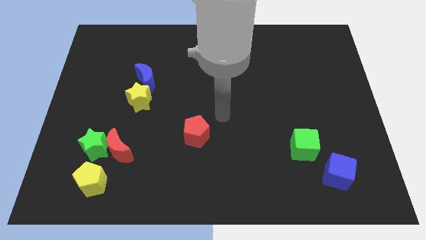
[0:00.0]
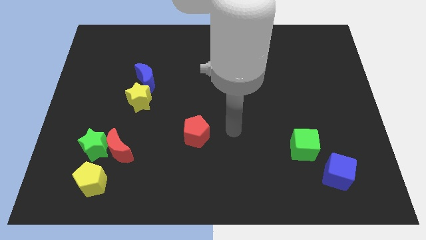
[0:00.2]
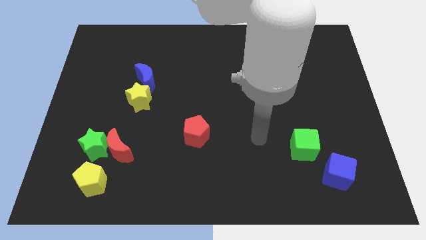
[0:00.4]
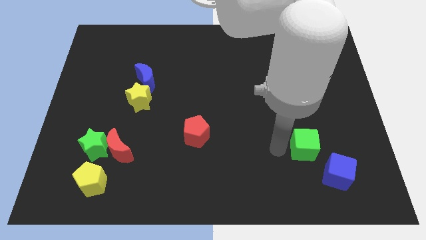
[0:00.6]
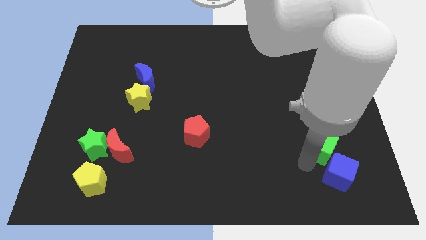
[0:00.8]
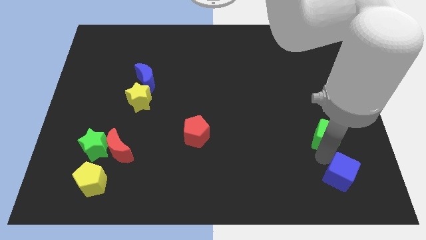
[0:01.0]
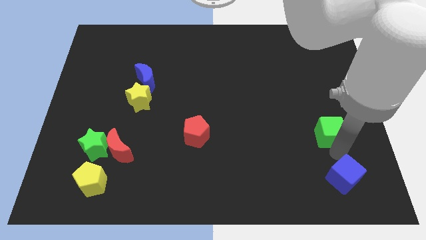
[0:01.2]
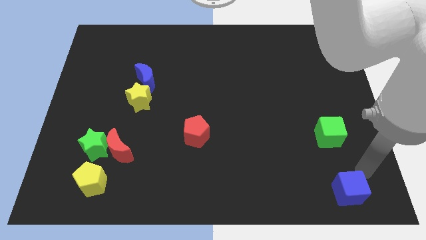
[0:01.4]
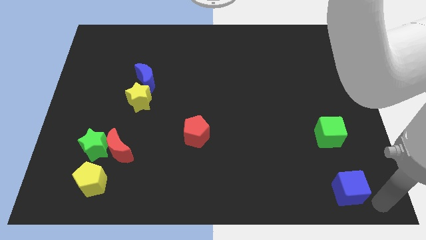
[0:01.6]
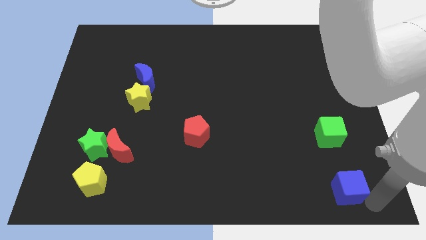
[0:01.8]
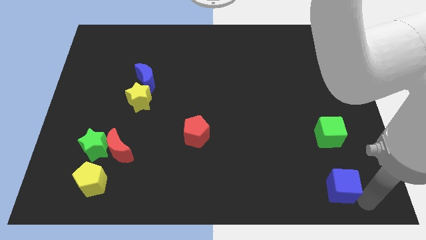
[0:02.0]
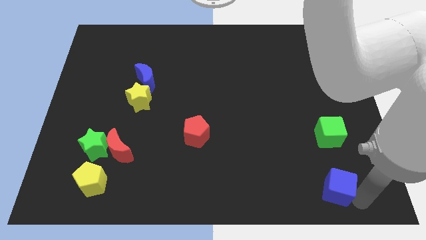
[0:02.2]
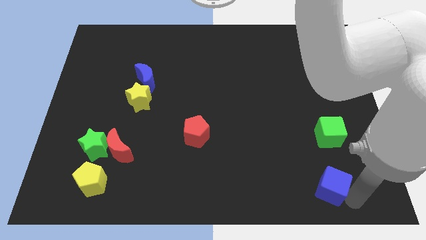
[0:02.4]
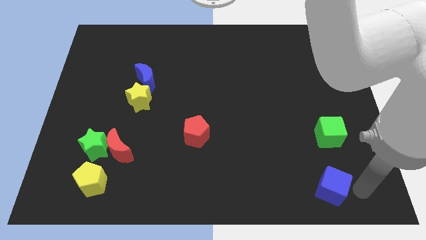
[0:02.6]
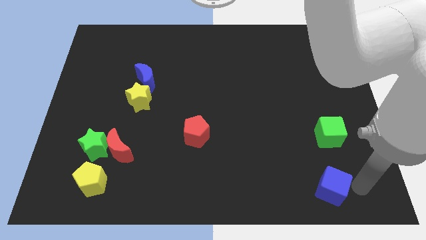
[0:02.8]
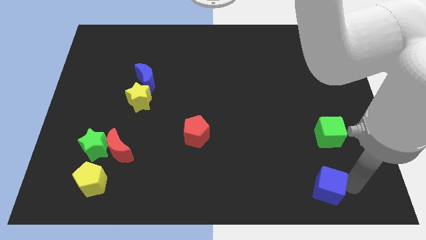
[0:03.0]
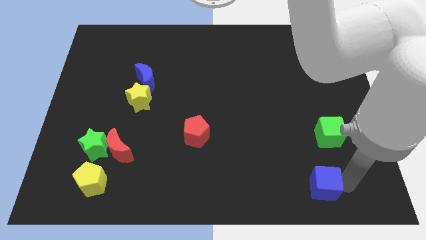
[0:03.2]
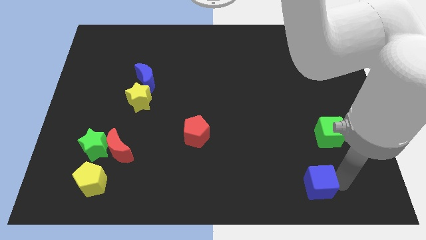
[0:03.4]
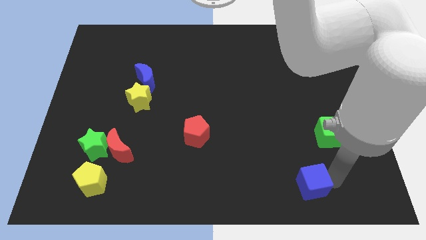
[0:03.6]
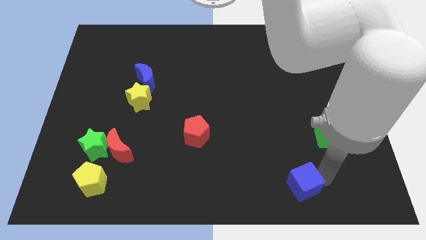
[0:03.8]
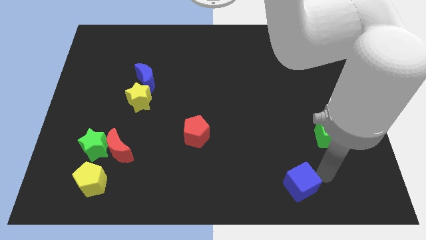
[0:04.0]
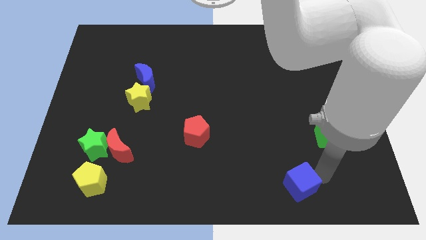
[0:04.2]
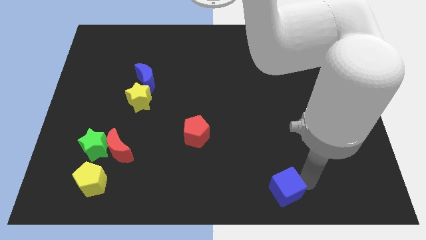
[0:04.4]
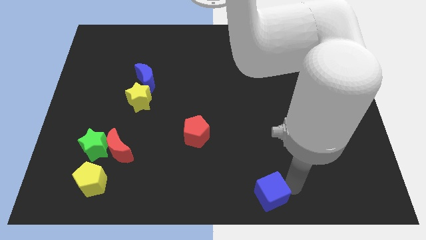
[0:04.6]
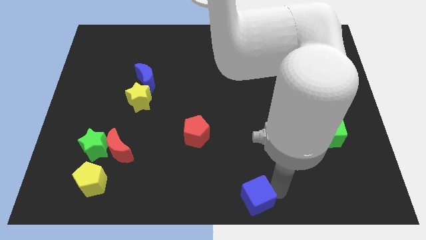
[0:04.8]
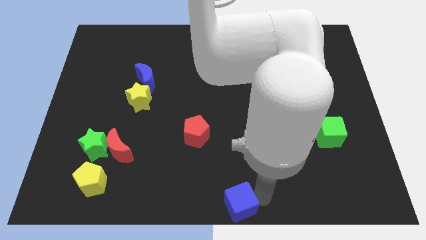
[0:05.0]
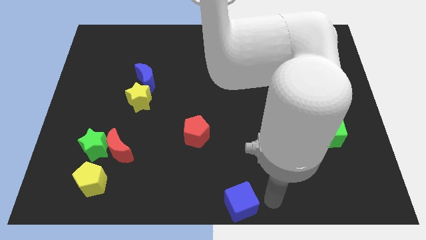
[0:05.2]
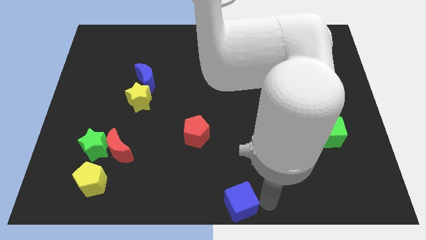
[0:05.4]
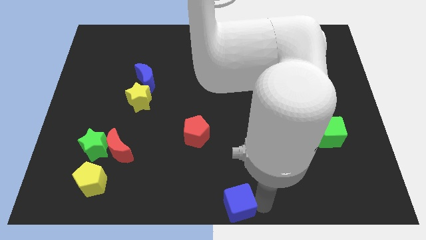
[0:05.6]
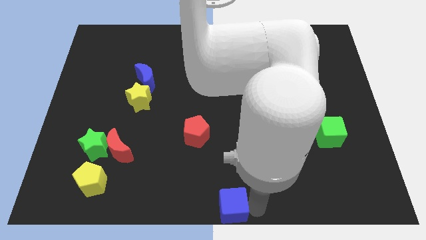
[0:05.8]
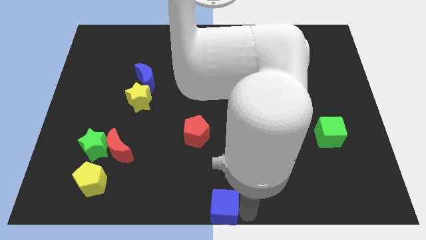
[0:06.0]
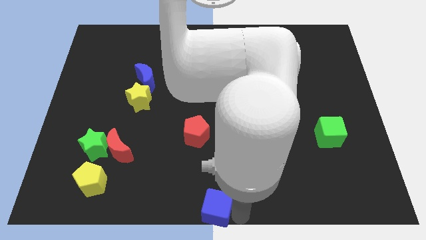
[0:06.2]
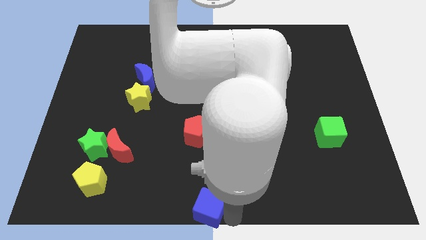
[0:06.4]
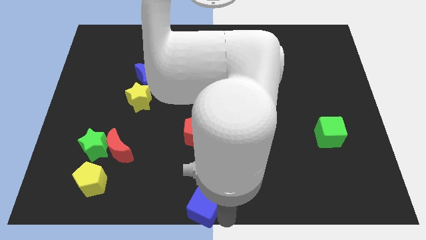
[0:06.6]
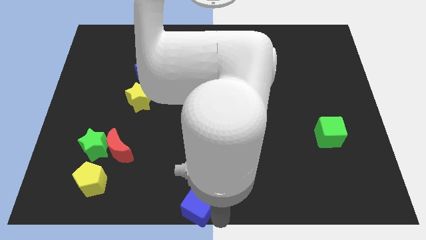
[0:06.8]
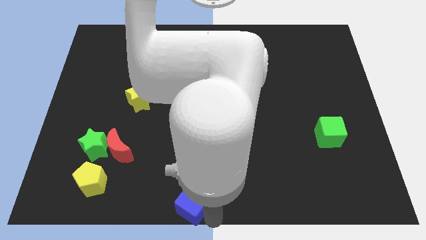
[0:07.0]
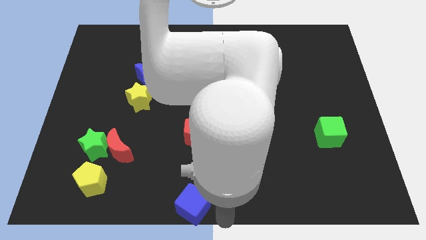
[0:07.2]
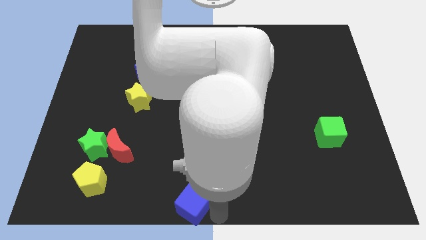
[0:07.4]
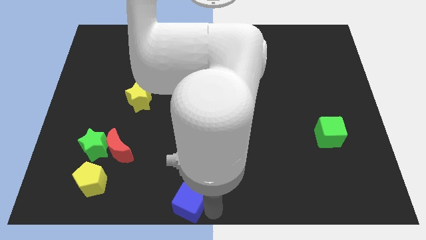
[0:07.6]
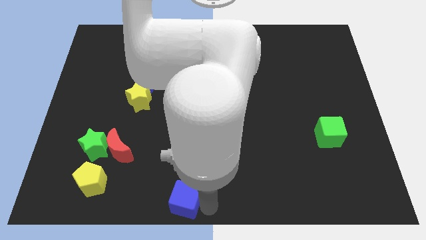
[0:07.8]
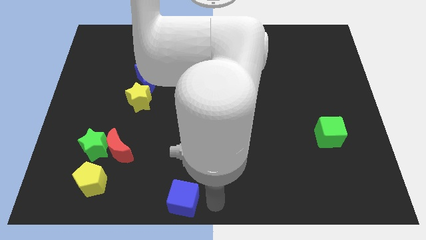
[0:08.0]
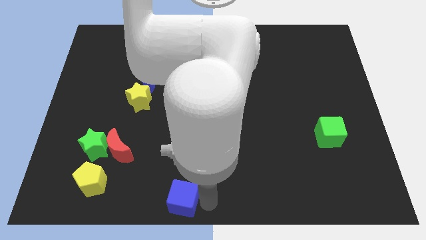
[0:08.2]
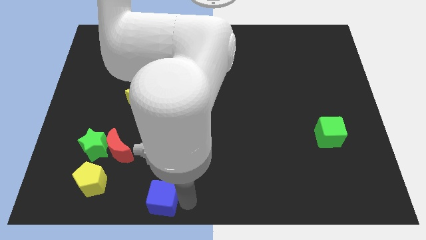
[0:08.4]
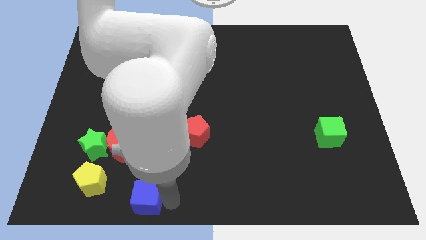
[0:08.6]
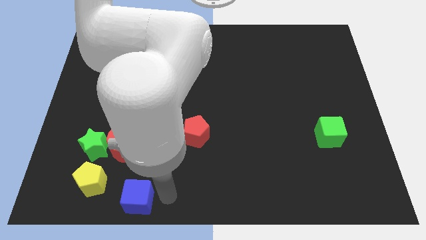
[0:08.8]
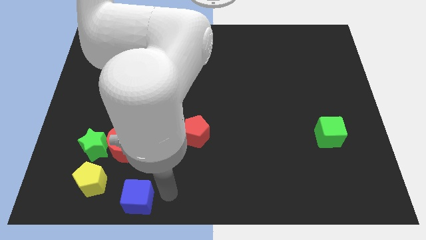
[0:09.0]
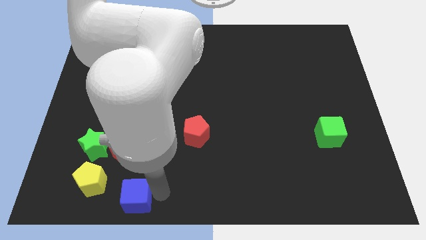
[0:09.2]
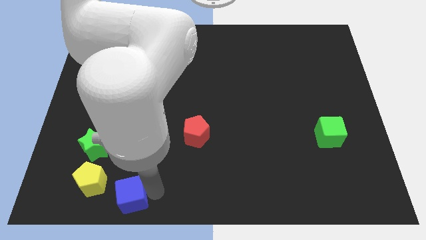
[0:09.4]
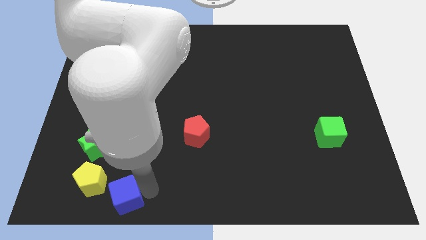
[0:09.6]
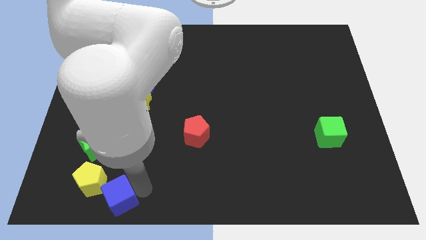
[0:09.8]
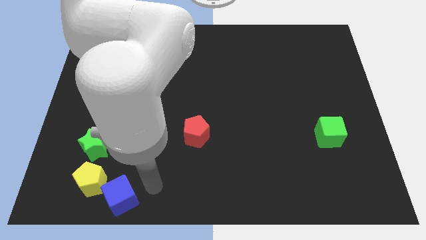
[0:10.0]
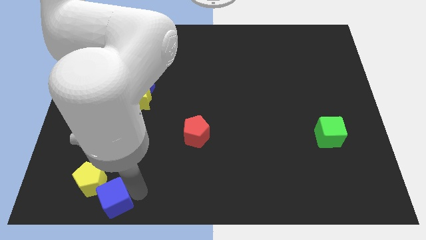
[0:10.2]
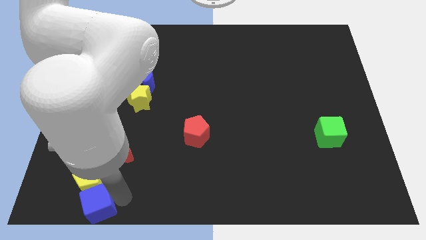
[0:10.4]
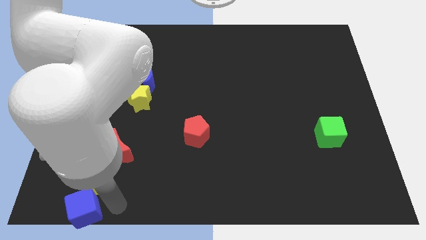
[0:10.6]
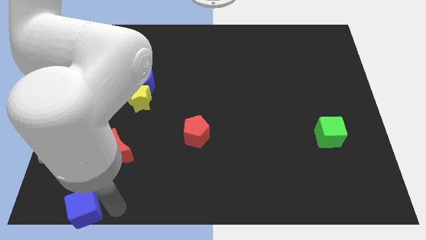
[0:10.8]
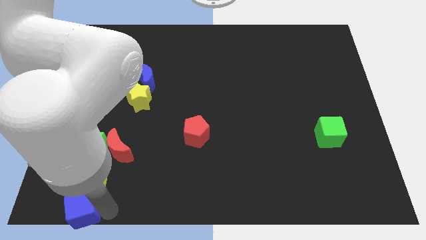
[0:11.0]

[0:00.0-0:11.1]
put the blue cube to the bottom left of the board

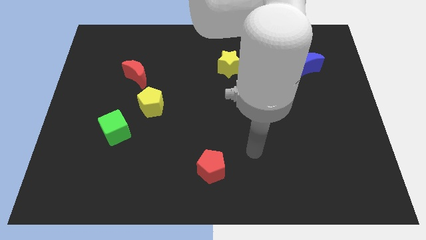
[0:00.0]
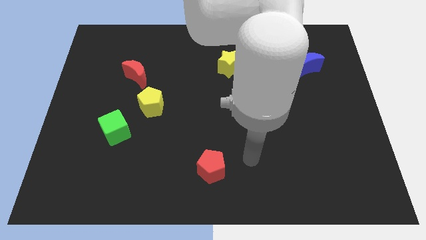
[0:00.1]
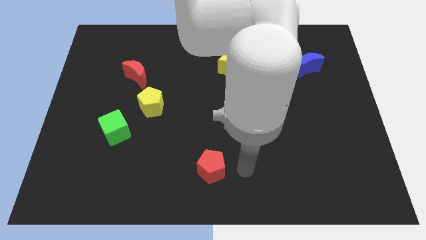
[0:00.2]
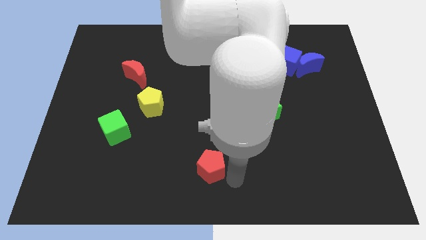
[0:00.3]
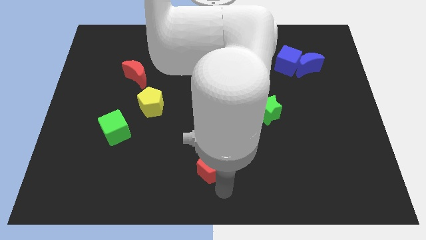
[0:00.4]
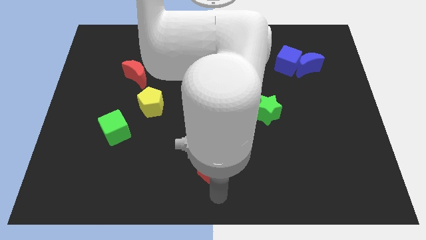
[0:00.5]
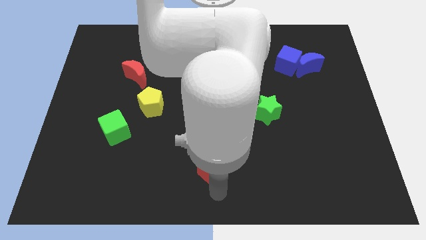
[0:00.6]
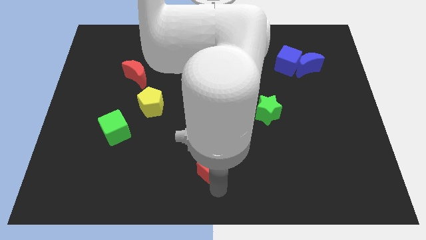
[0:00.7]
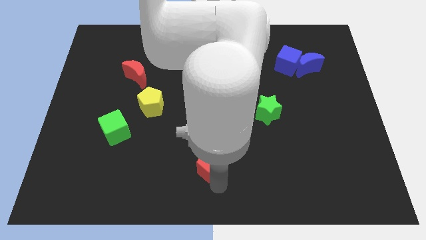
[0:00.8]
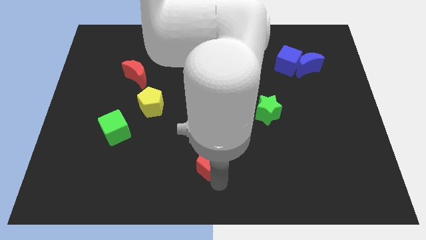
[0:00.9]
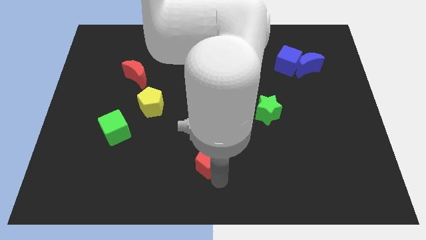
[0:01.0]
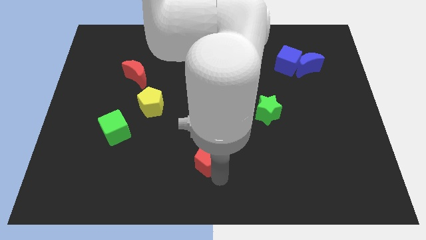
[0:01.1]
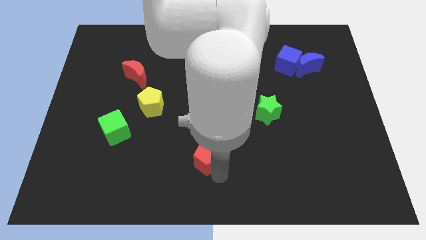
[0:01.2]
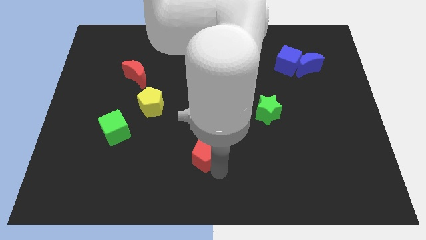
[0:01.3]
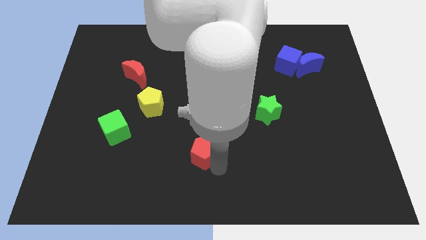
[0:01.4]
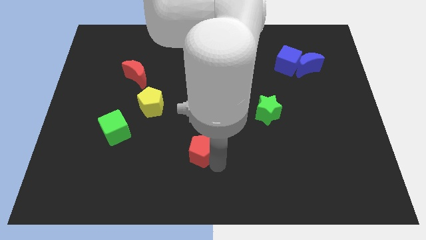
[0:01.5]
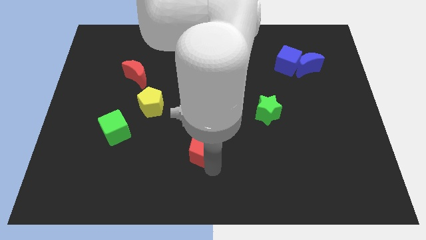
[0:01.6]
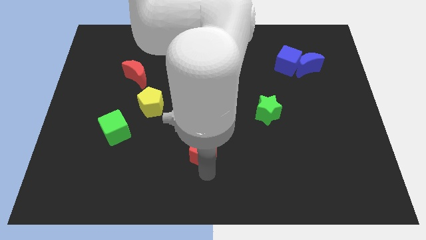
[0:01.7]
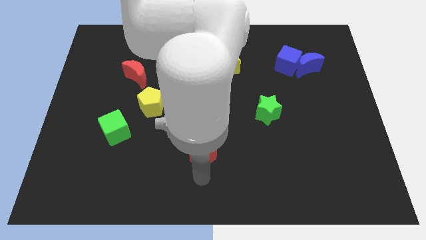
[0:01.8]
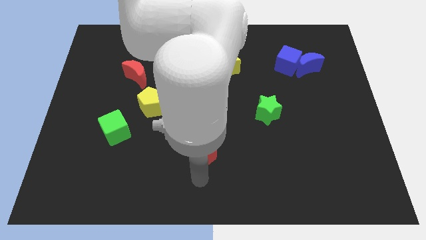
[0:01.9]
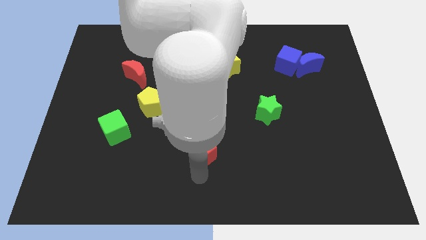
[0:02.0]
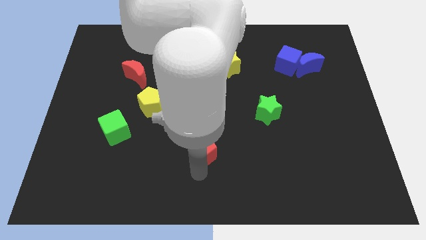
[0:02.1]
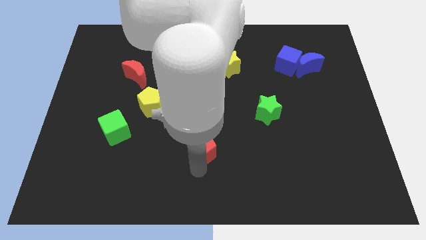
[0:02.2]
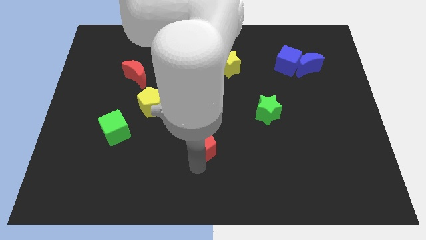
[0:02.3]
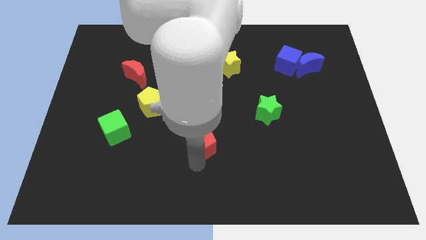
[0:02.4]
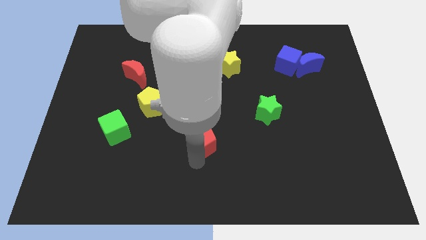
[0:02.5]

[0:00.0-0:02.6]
put the red pentagon to the middle
